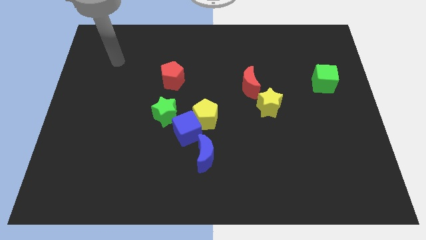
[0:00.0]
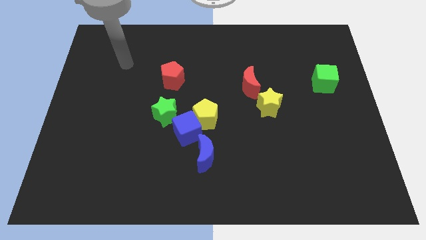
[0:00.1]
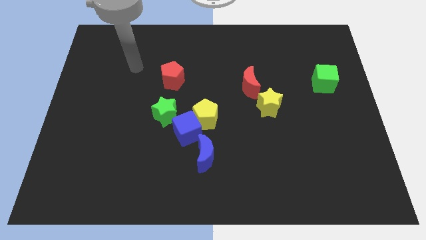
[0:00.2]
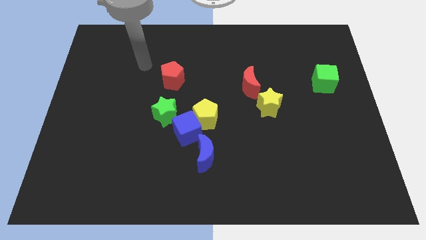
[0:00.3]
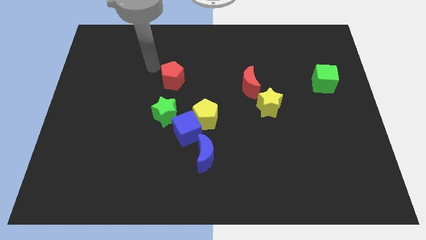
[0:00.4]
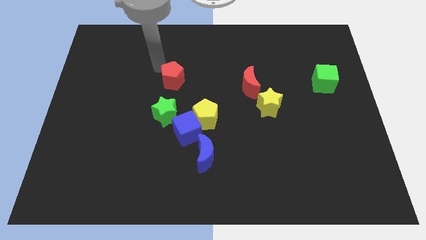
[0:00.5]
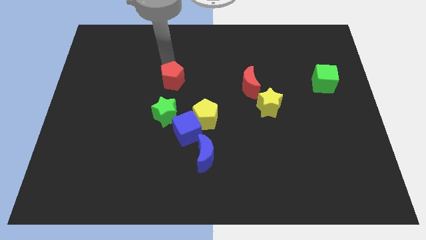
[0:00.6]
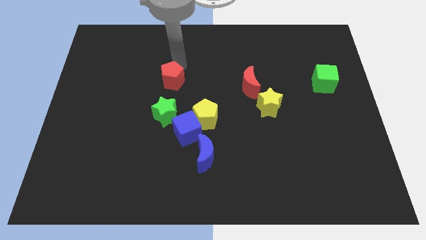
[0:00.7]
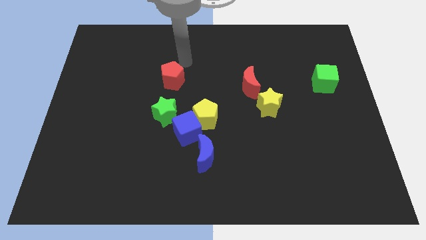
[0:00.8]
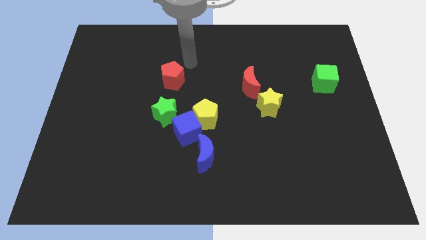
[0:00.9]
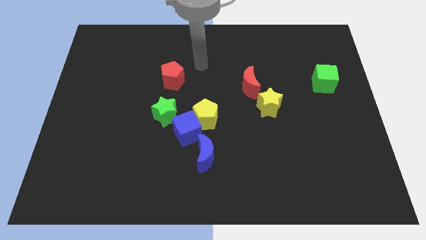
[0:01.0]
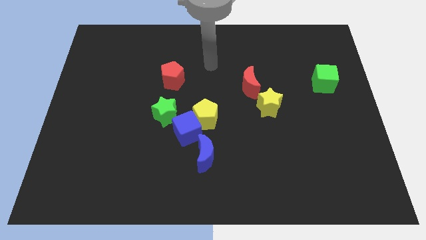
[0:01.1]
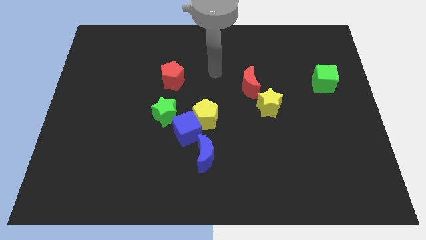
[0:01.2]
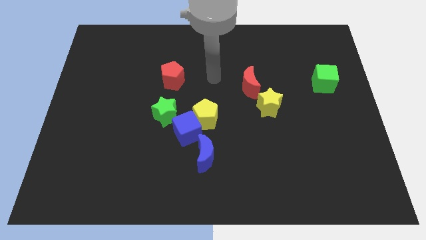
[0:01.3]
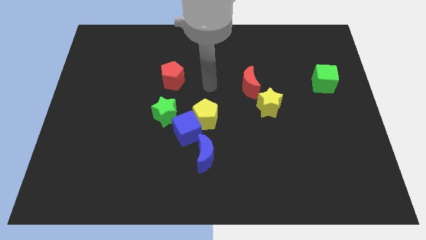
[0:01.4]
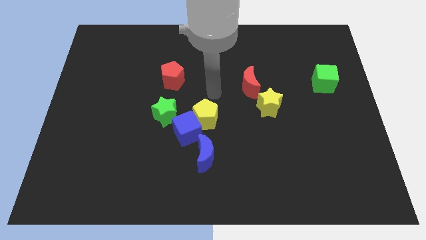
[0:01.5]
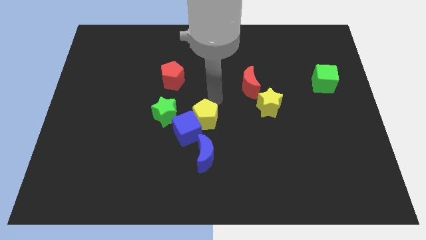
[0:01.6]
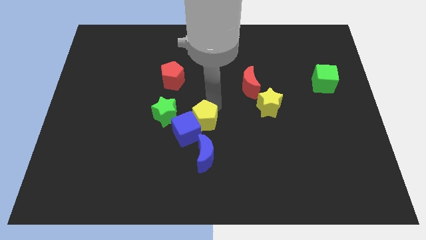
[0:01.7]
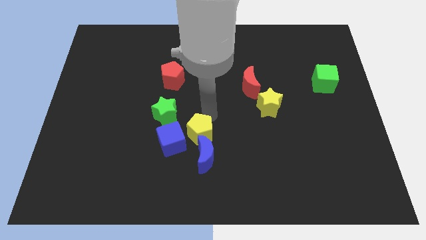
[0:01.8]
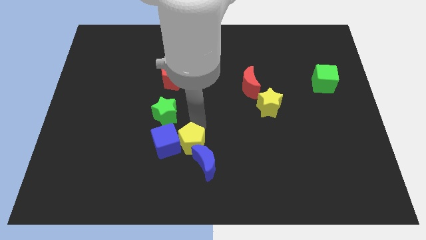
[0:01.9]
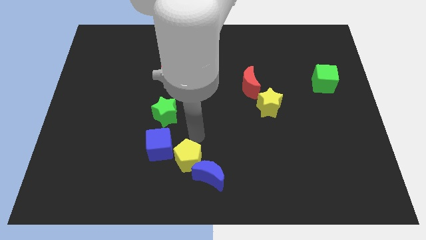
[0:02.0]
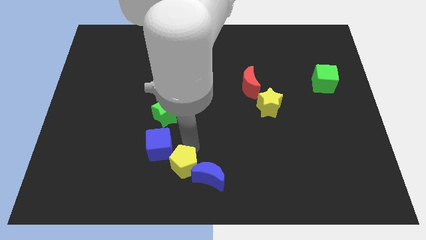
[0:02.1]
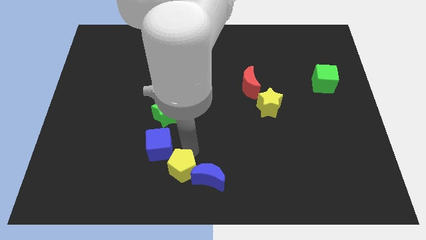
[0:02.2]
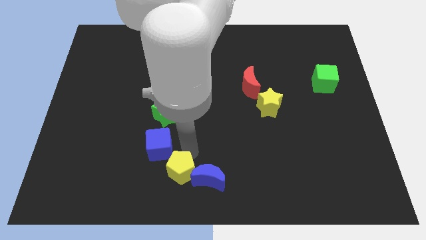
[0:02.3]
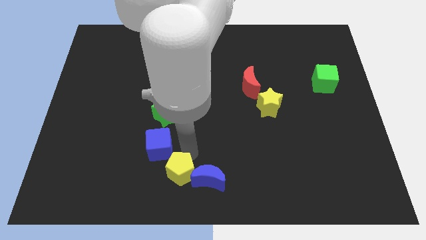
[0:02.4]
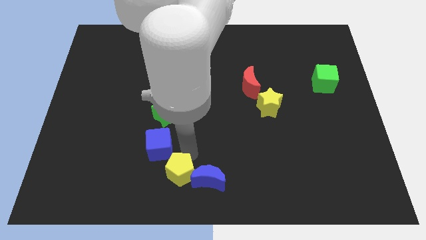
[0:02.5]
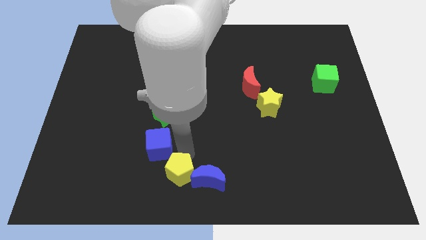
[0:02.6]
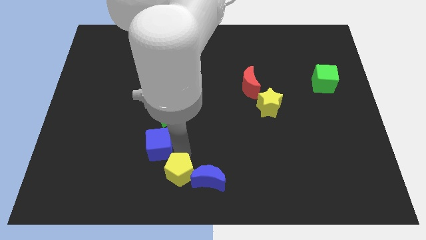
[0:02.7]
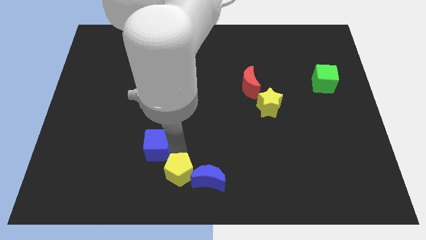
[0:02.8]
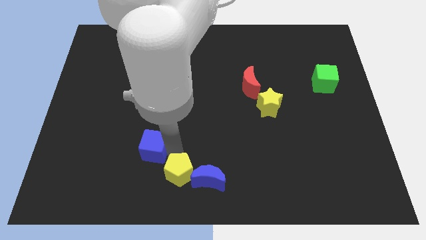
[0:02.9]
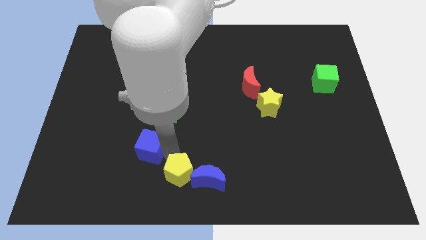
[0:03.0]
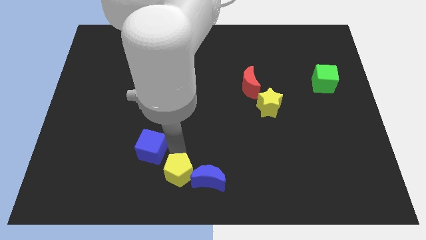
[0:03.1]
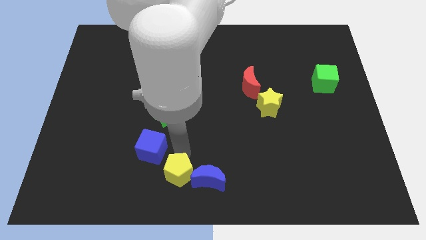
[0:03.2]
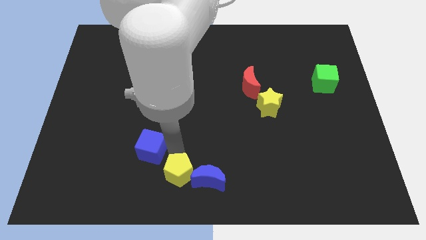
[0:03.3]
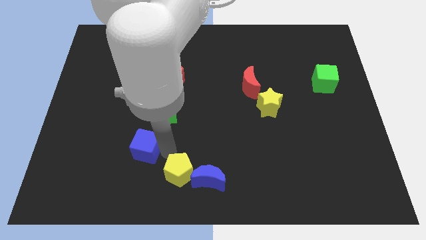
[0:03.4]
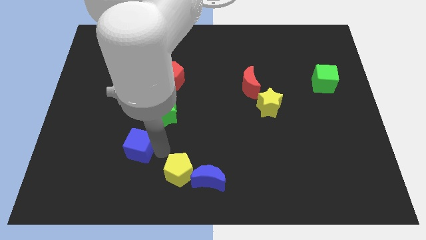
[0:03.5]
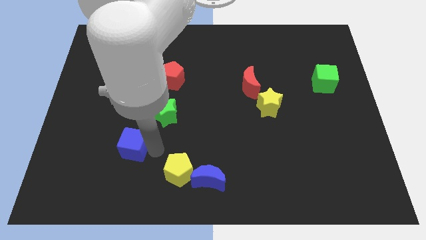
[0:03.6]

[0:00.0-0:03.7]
separate the blue cube from the group

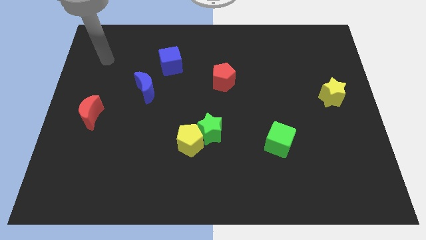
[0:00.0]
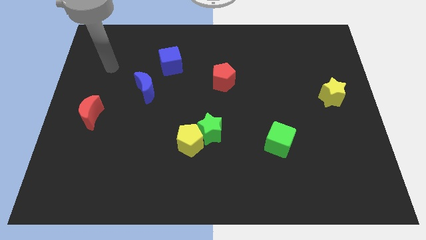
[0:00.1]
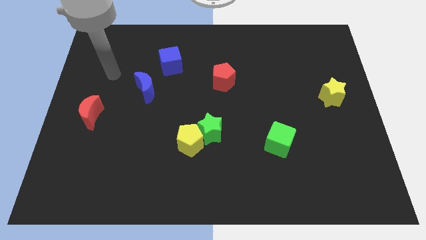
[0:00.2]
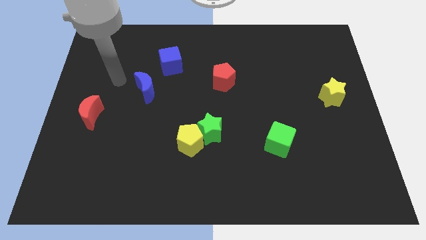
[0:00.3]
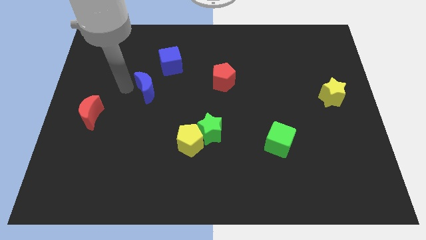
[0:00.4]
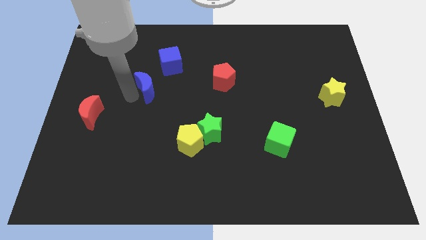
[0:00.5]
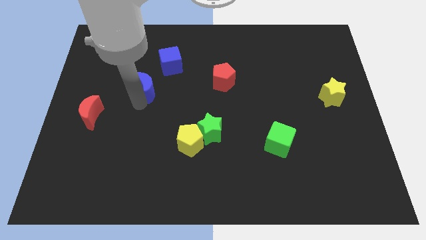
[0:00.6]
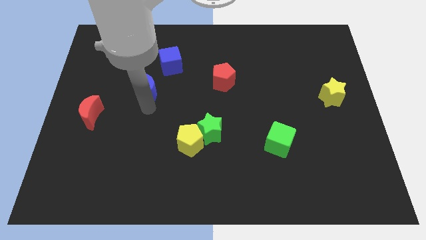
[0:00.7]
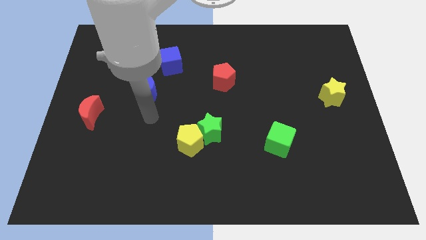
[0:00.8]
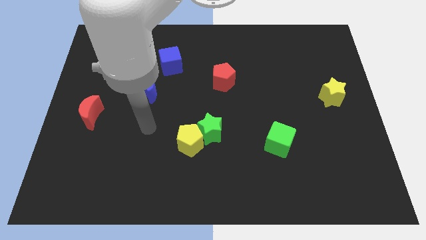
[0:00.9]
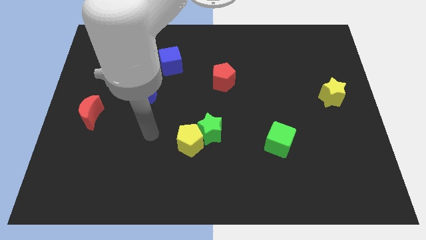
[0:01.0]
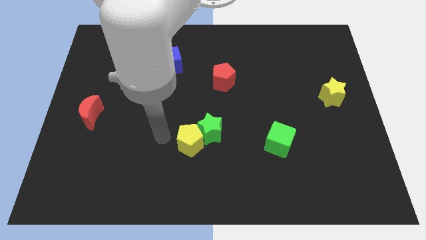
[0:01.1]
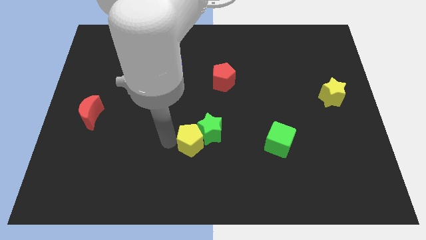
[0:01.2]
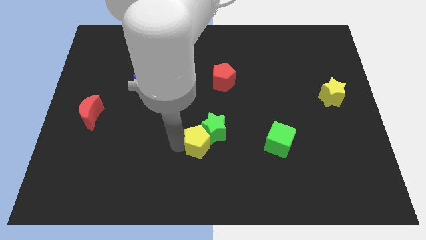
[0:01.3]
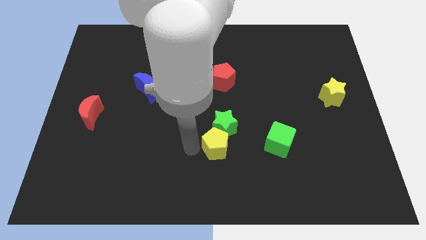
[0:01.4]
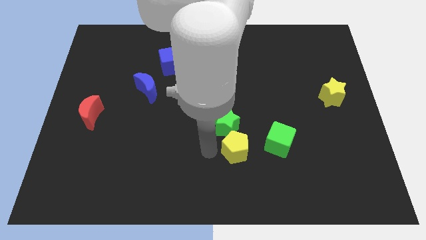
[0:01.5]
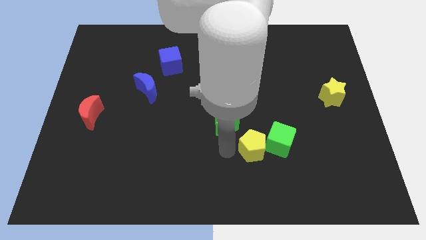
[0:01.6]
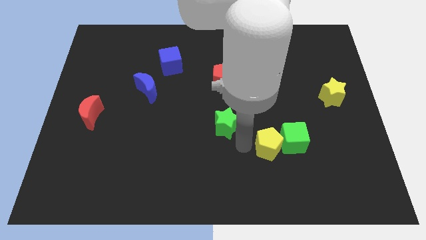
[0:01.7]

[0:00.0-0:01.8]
pull the green star apart from the yellow pentagon

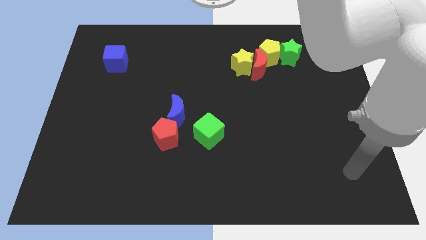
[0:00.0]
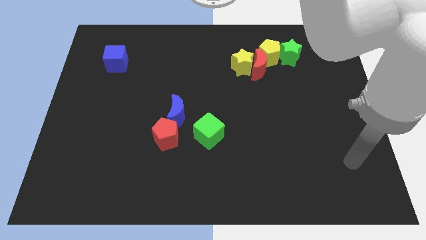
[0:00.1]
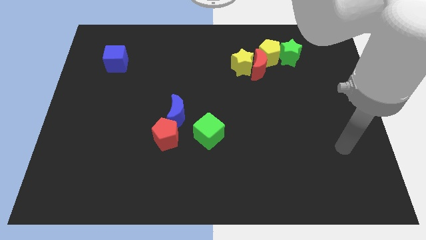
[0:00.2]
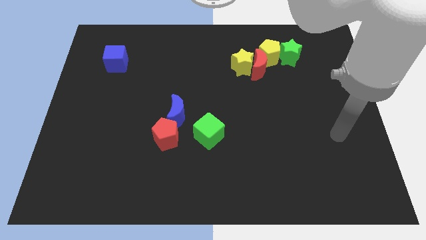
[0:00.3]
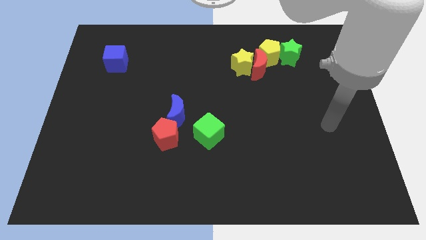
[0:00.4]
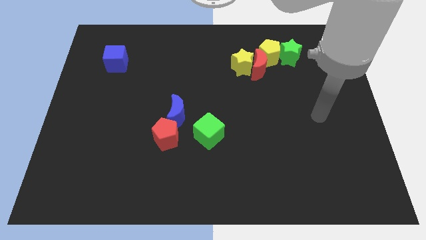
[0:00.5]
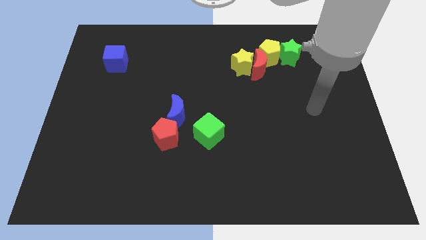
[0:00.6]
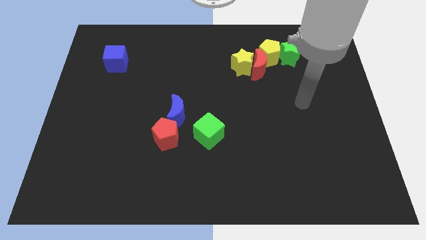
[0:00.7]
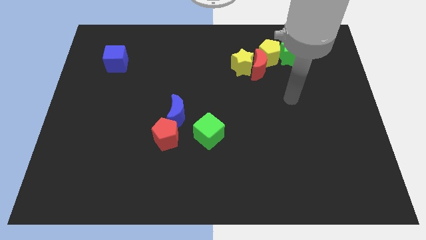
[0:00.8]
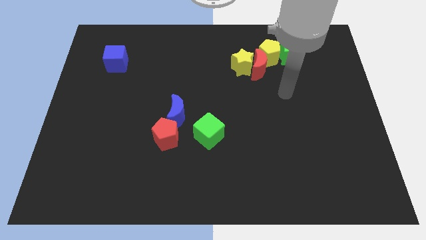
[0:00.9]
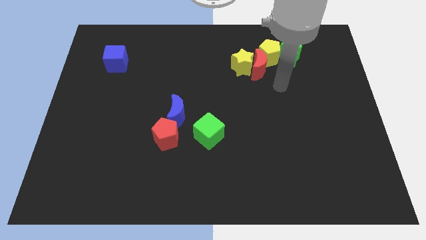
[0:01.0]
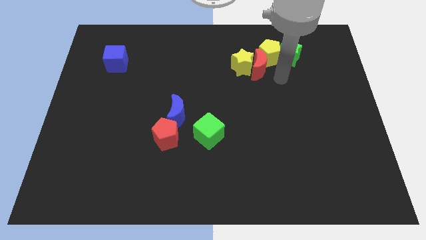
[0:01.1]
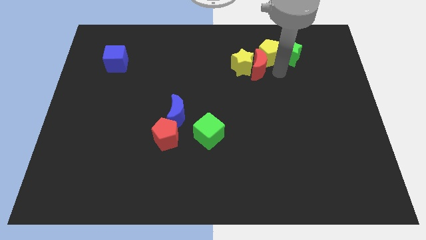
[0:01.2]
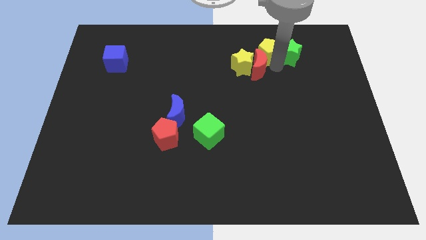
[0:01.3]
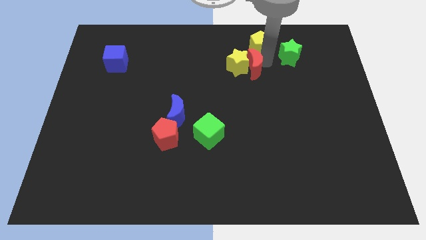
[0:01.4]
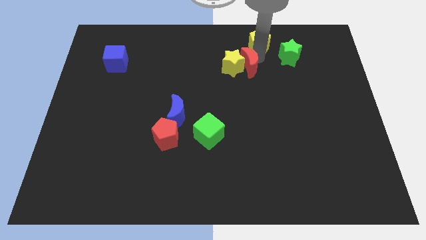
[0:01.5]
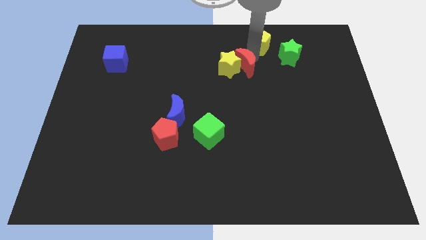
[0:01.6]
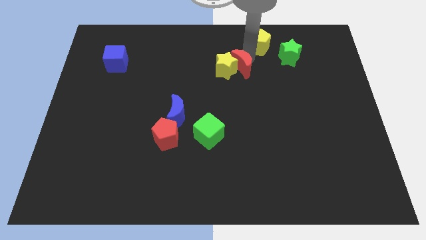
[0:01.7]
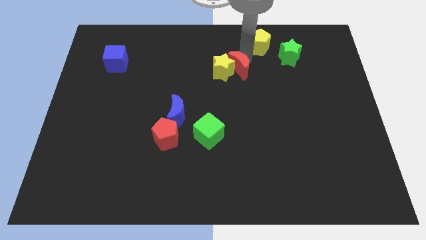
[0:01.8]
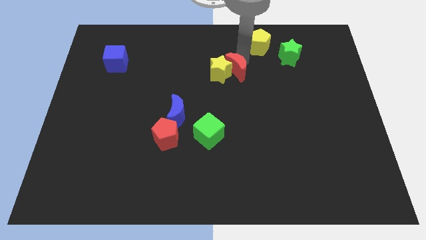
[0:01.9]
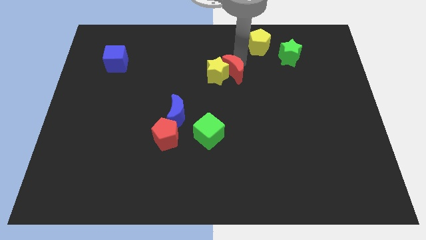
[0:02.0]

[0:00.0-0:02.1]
separate the yellow star from the red moon and yellow pentagon

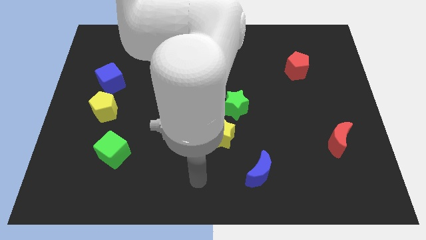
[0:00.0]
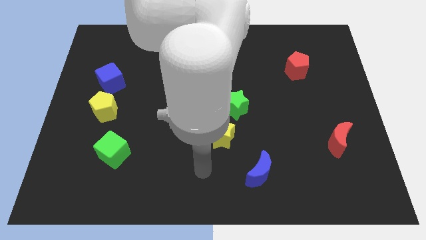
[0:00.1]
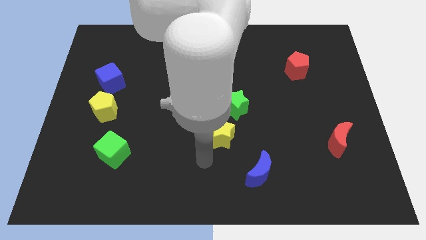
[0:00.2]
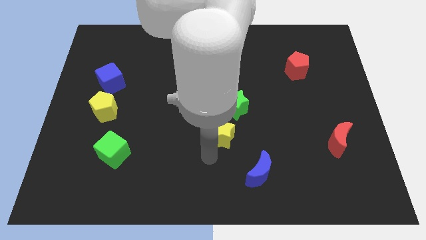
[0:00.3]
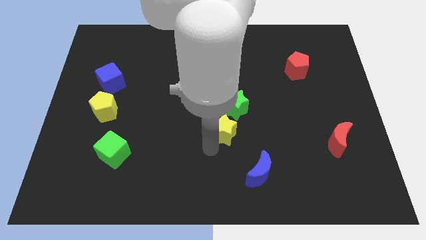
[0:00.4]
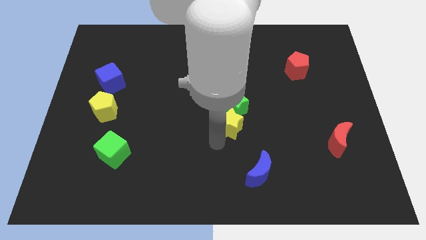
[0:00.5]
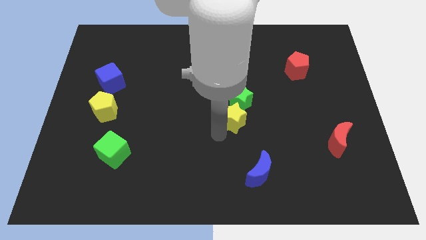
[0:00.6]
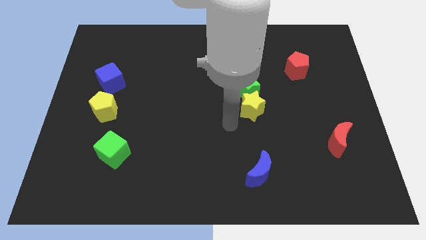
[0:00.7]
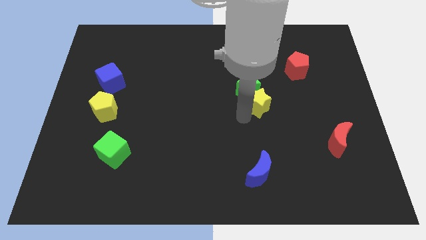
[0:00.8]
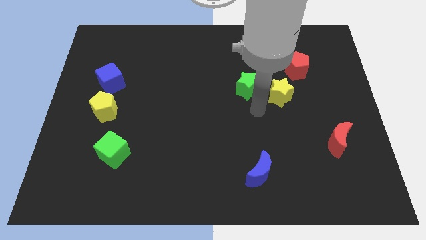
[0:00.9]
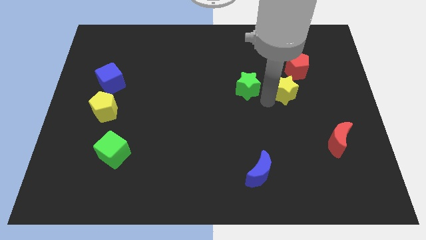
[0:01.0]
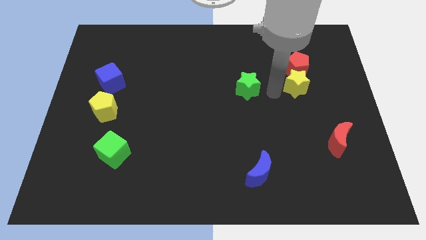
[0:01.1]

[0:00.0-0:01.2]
separate the green star from the yellow star

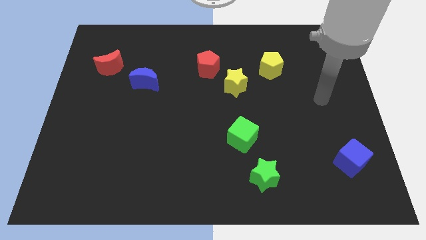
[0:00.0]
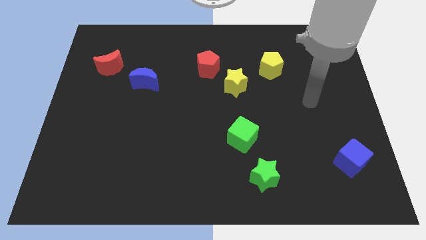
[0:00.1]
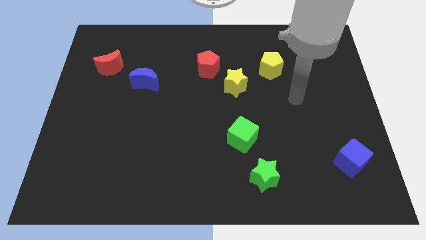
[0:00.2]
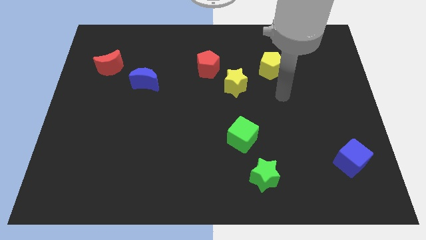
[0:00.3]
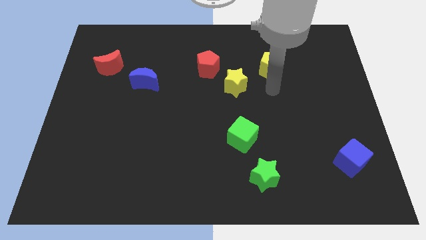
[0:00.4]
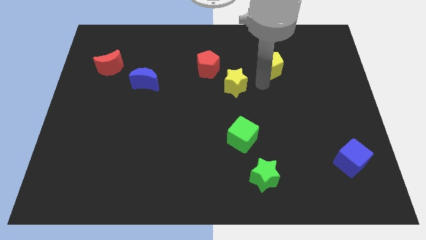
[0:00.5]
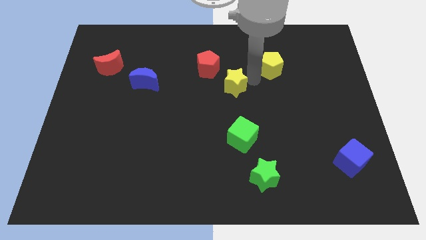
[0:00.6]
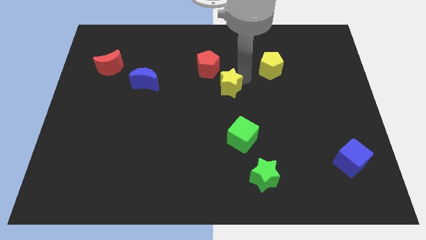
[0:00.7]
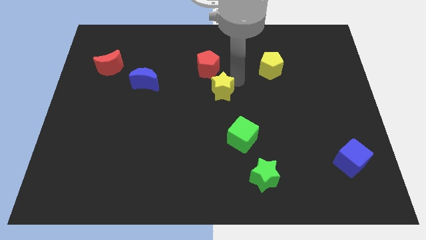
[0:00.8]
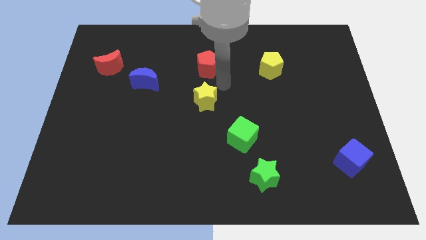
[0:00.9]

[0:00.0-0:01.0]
pull the red pentagon apart from the yellow star
